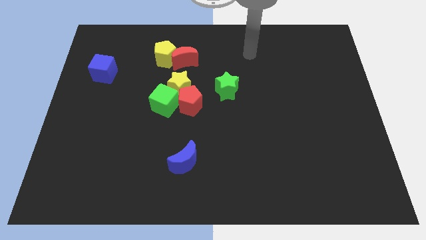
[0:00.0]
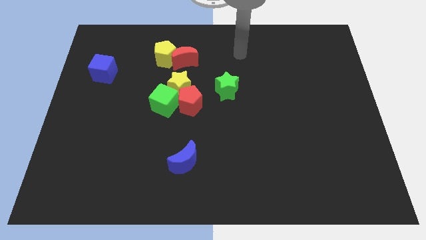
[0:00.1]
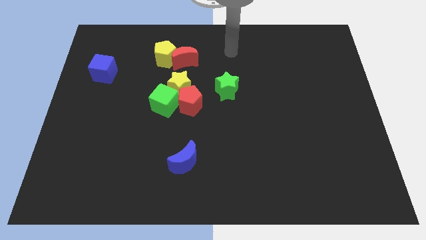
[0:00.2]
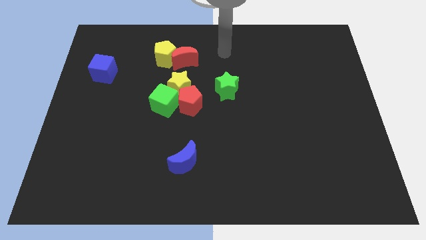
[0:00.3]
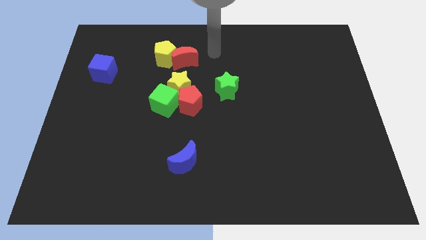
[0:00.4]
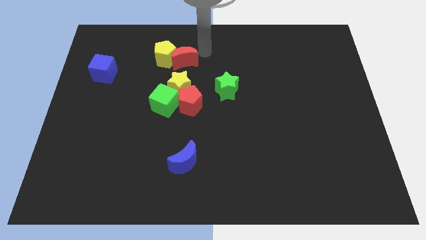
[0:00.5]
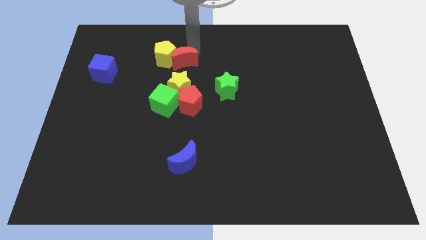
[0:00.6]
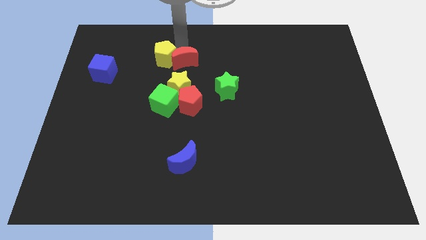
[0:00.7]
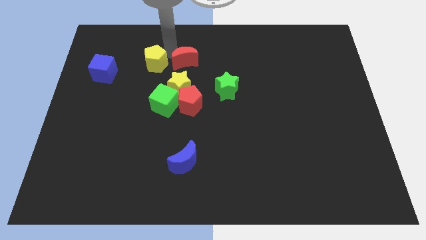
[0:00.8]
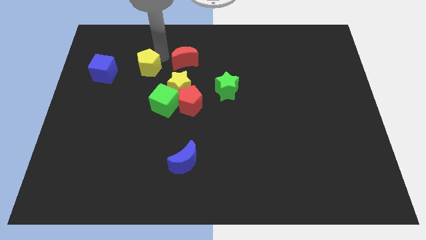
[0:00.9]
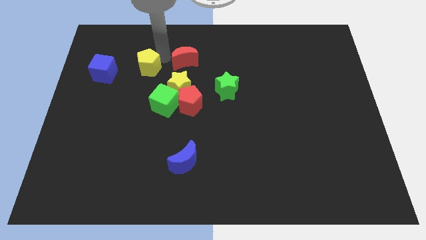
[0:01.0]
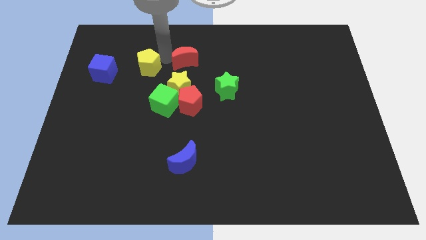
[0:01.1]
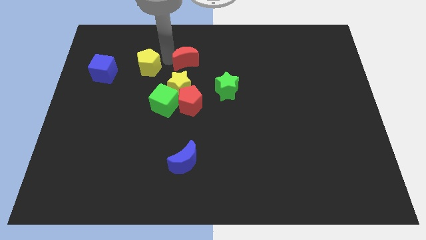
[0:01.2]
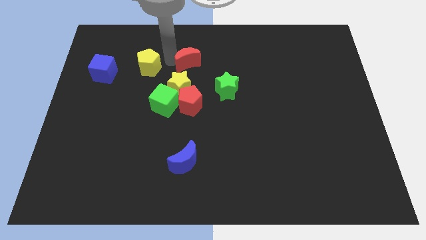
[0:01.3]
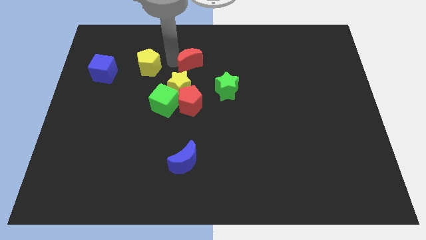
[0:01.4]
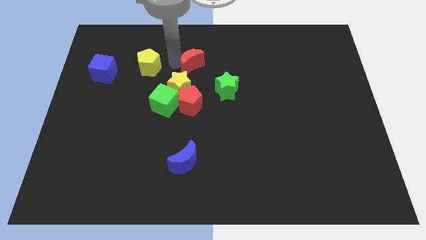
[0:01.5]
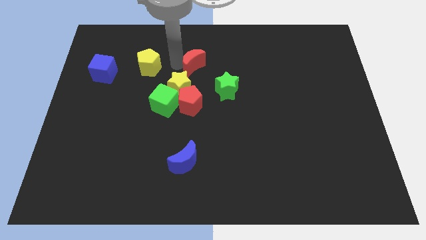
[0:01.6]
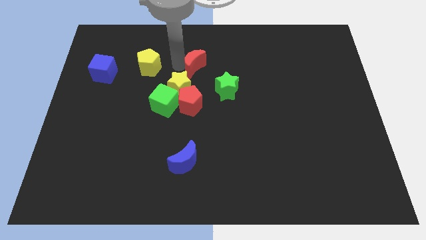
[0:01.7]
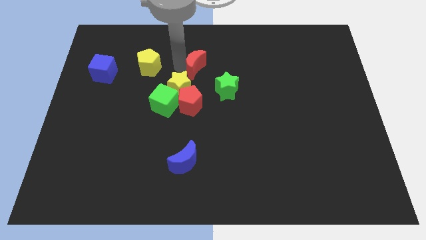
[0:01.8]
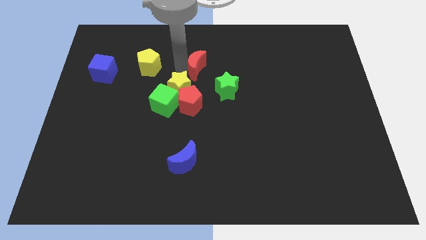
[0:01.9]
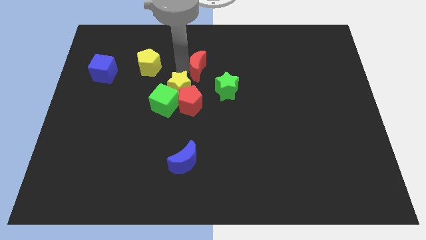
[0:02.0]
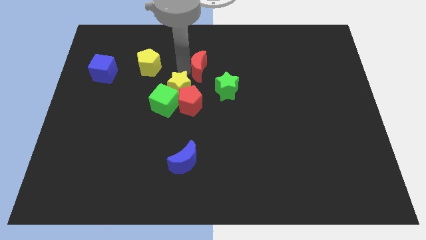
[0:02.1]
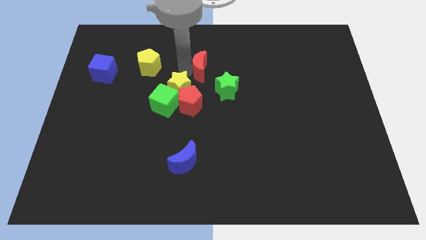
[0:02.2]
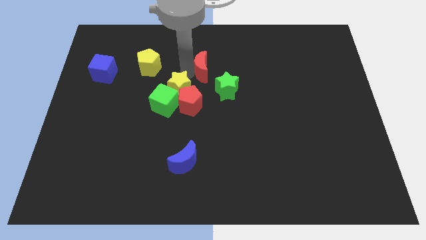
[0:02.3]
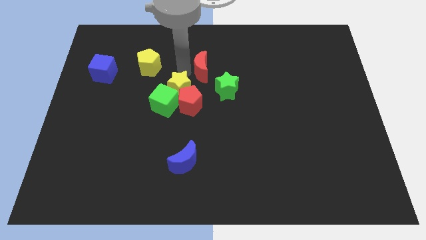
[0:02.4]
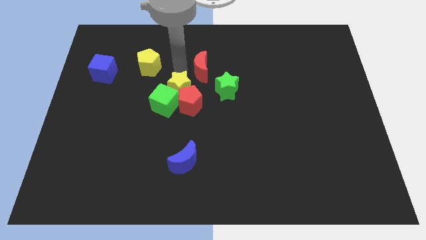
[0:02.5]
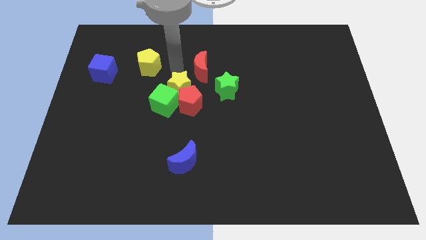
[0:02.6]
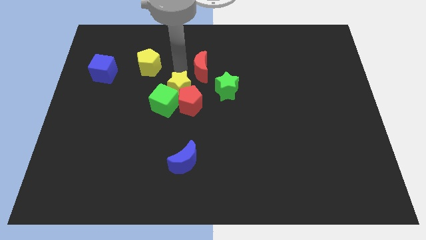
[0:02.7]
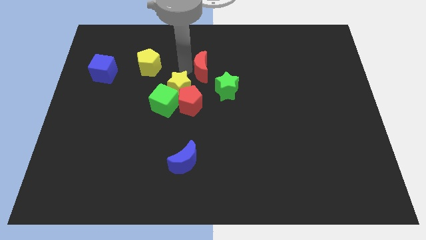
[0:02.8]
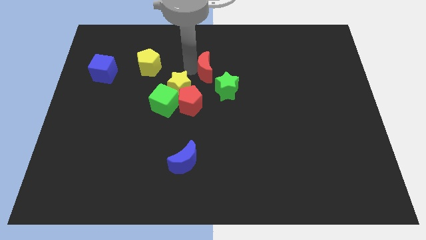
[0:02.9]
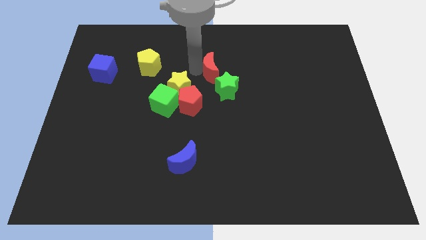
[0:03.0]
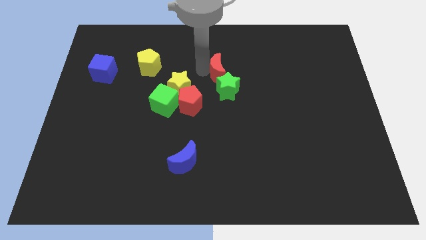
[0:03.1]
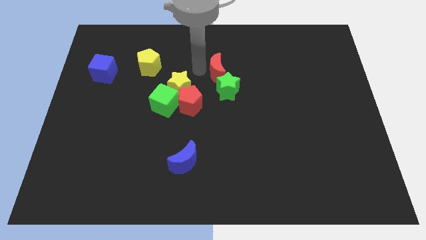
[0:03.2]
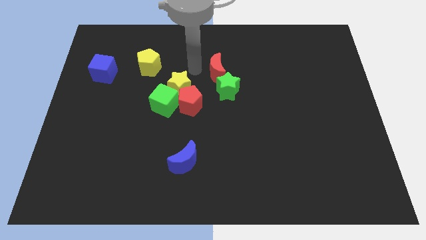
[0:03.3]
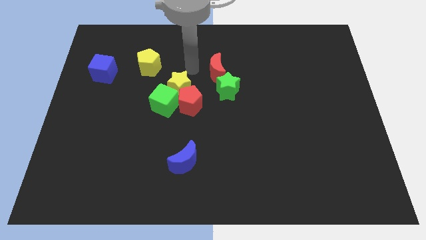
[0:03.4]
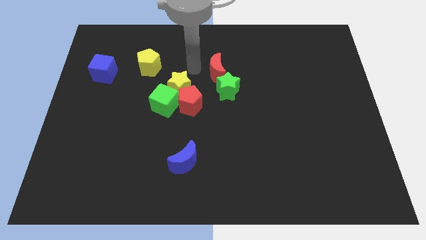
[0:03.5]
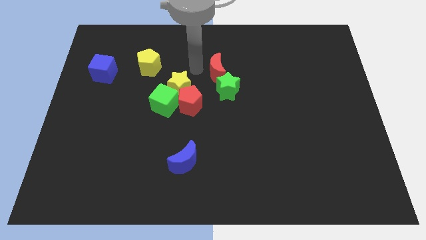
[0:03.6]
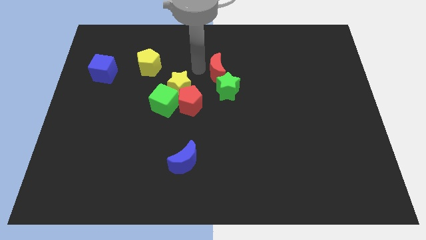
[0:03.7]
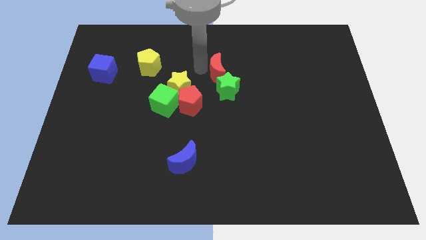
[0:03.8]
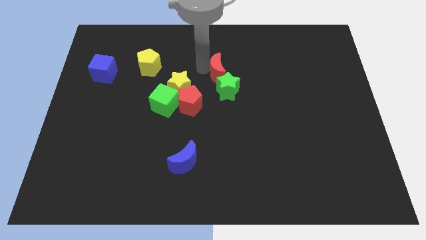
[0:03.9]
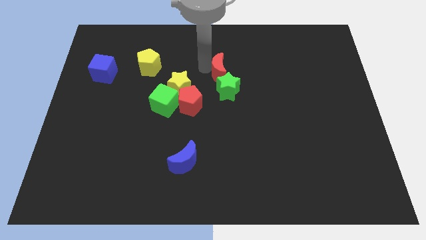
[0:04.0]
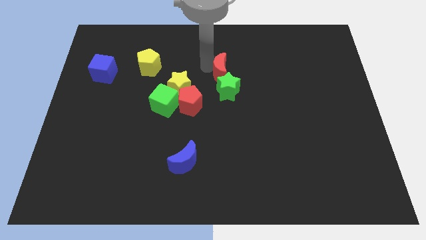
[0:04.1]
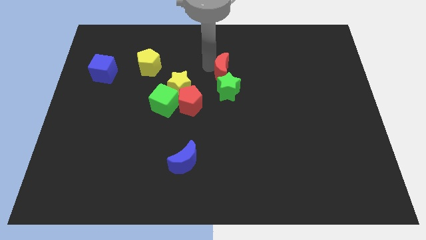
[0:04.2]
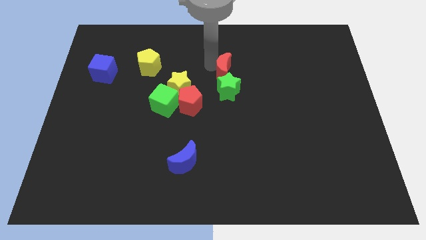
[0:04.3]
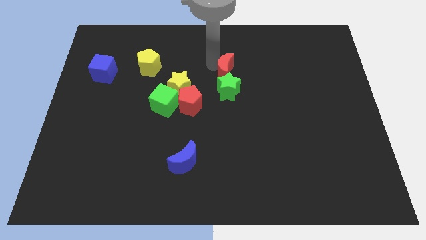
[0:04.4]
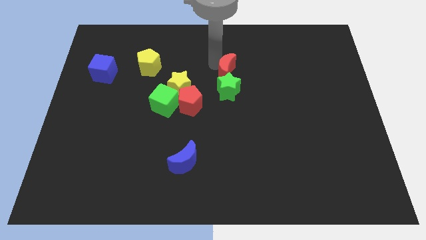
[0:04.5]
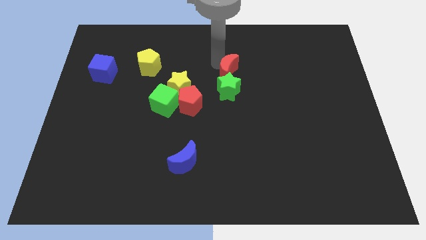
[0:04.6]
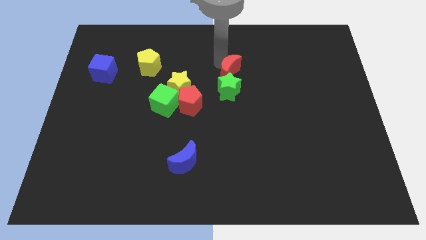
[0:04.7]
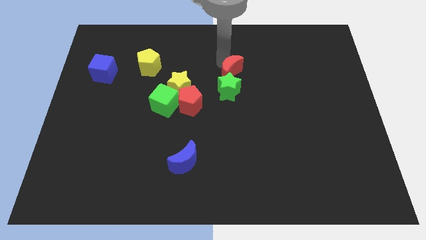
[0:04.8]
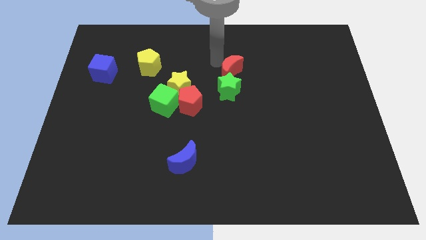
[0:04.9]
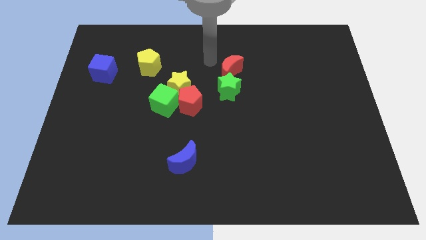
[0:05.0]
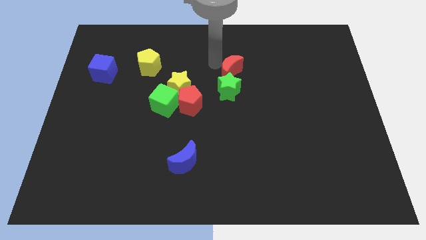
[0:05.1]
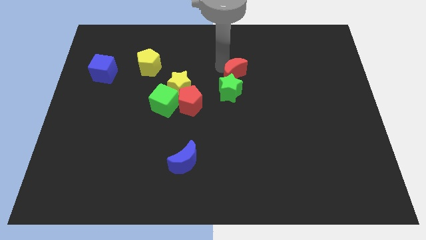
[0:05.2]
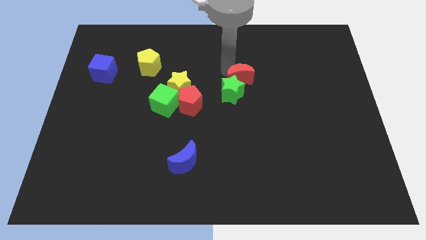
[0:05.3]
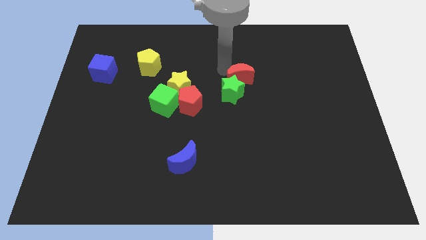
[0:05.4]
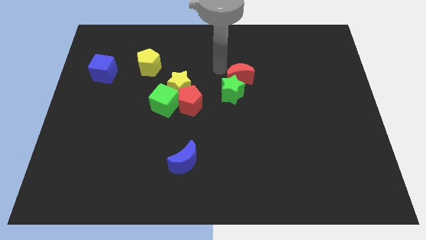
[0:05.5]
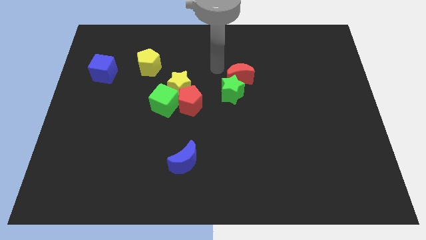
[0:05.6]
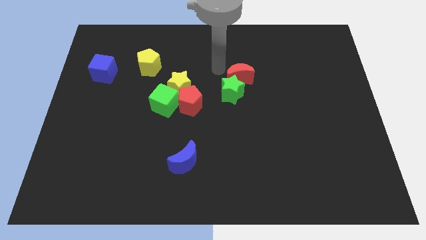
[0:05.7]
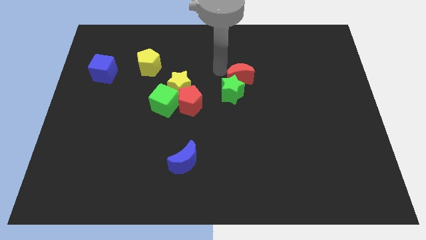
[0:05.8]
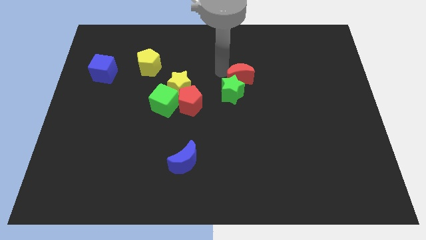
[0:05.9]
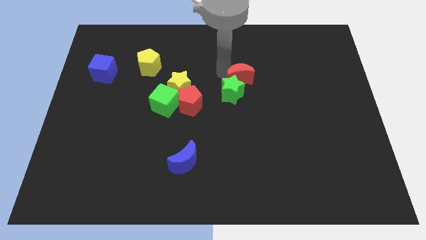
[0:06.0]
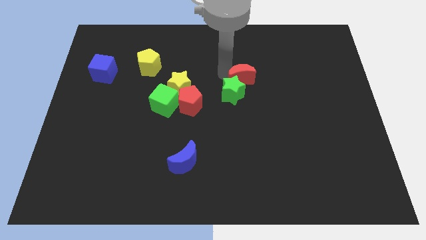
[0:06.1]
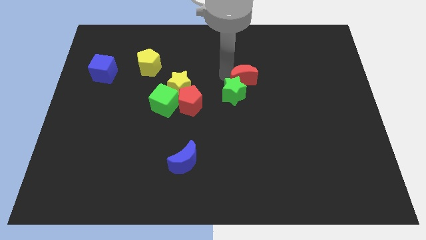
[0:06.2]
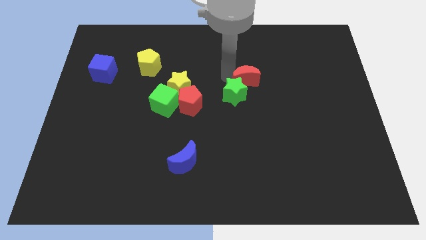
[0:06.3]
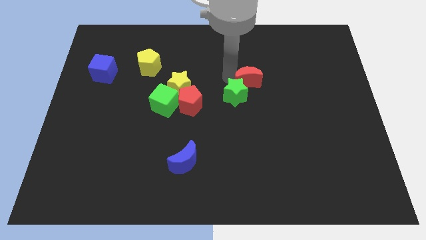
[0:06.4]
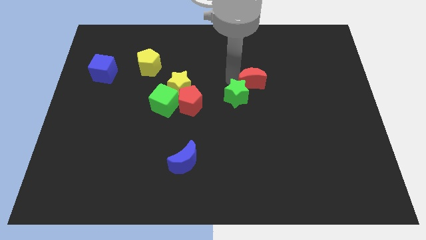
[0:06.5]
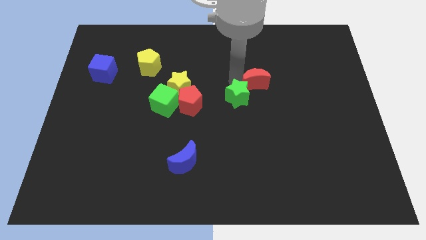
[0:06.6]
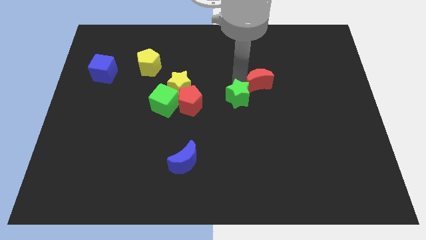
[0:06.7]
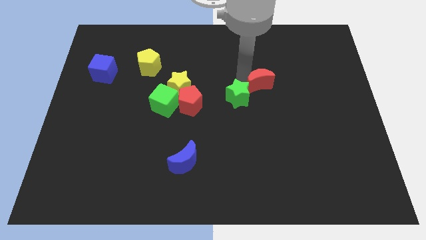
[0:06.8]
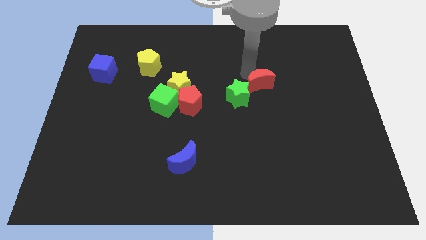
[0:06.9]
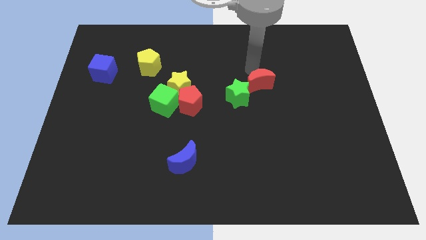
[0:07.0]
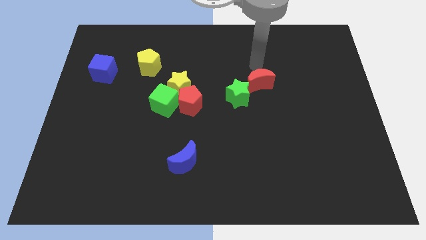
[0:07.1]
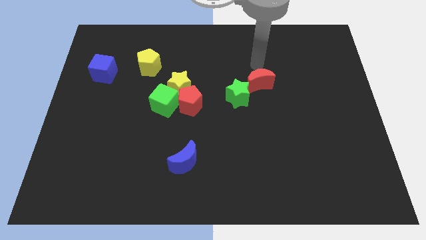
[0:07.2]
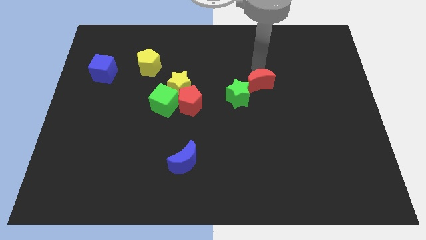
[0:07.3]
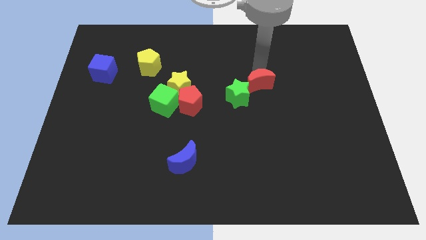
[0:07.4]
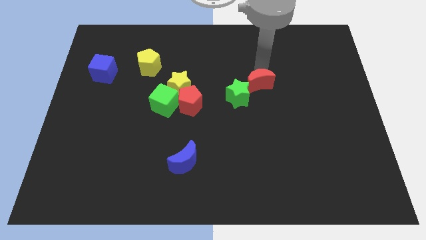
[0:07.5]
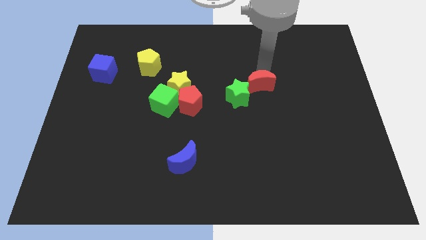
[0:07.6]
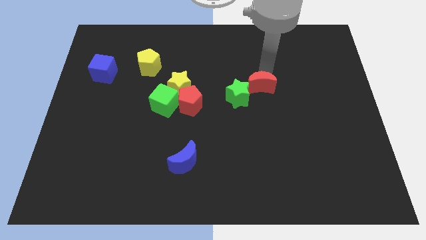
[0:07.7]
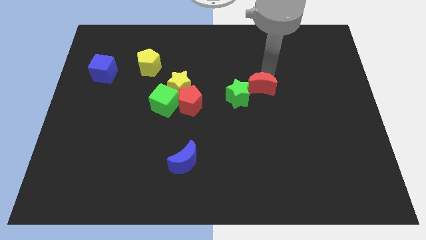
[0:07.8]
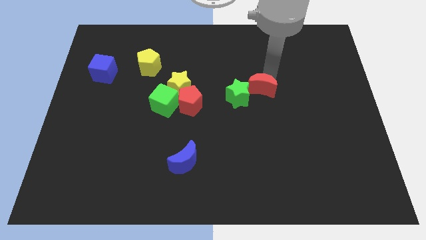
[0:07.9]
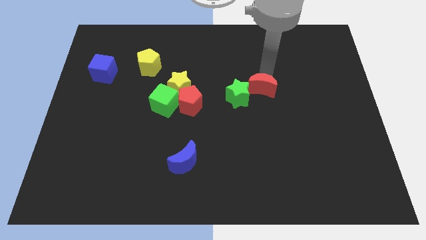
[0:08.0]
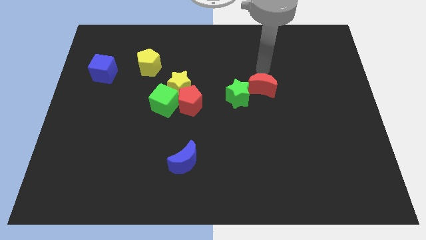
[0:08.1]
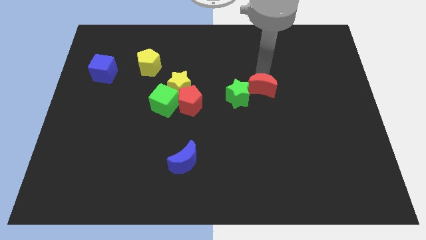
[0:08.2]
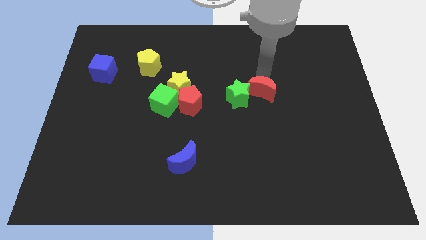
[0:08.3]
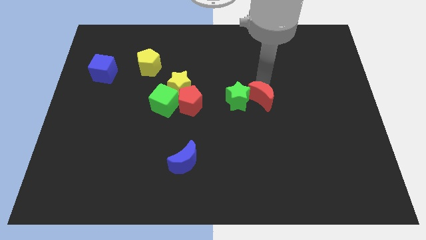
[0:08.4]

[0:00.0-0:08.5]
put the red moon to the bottom right side of the green star
